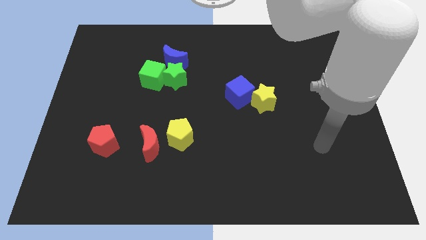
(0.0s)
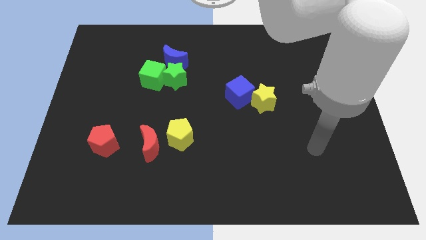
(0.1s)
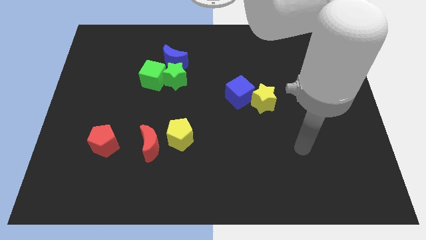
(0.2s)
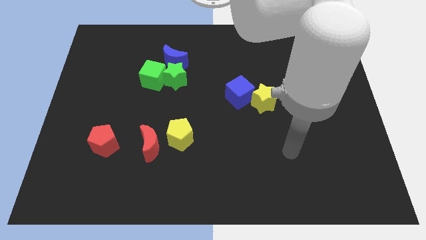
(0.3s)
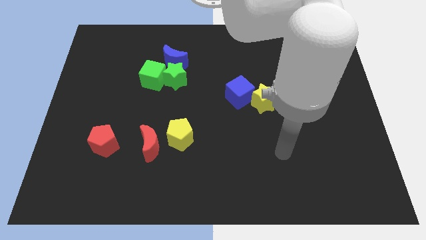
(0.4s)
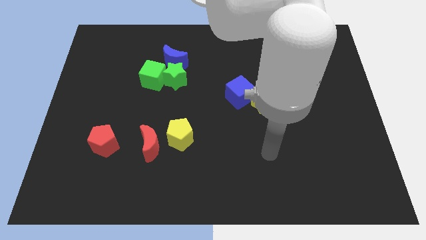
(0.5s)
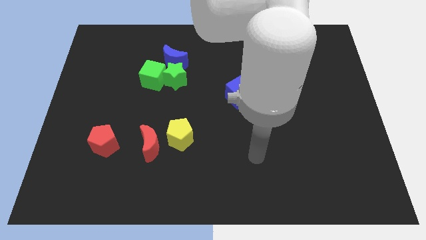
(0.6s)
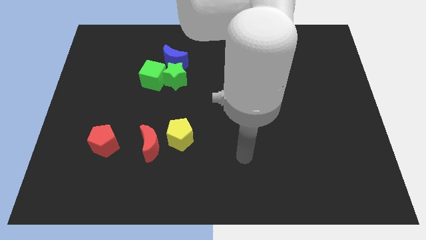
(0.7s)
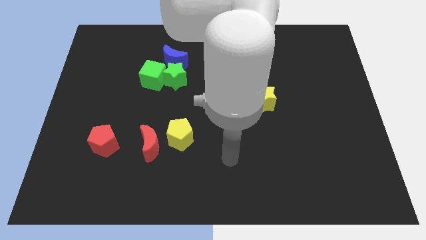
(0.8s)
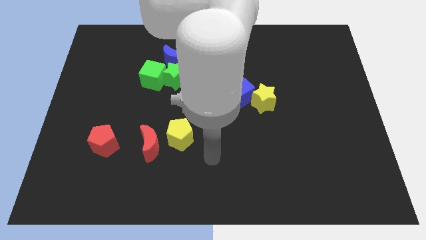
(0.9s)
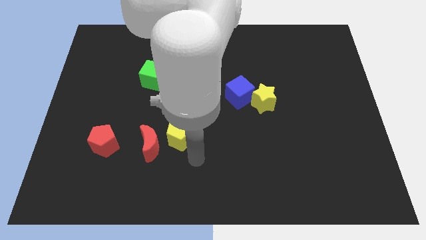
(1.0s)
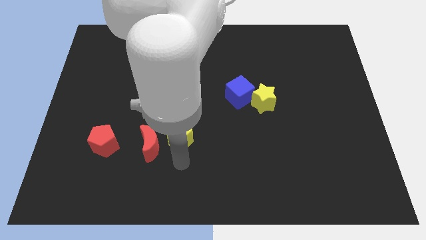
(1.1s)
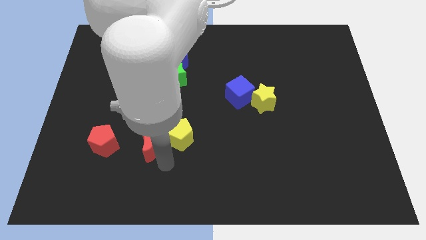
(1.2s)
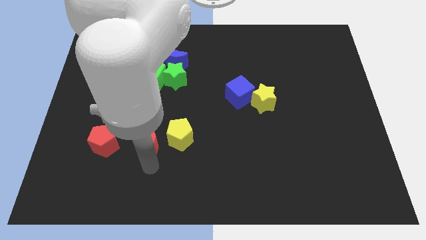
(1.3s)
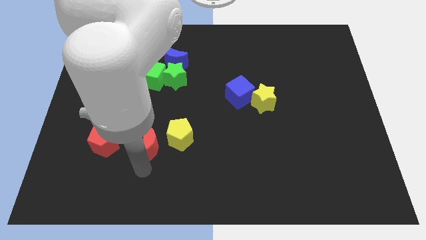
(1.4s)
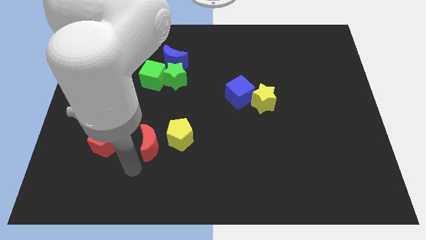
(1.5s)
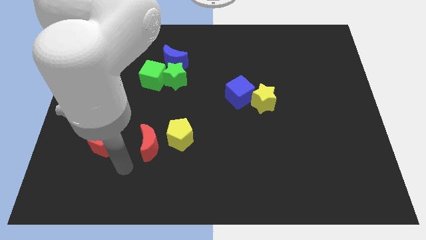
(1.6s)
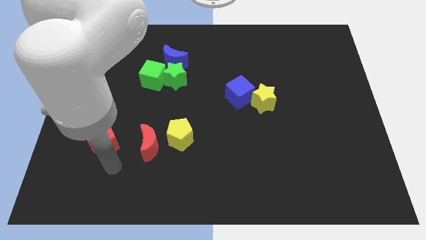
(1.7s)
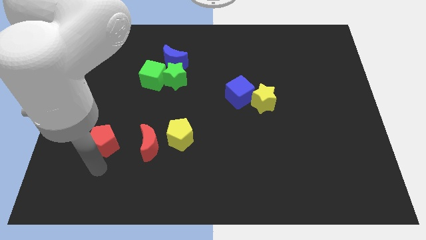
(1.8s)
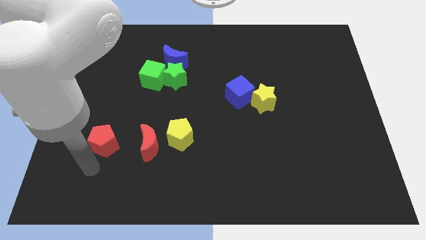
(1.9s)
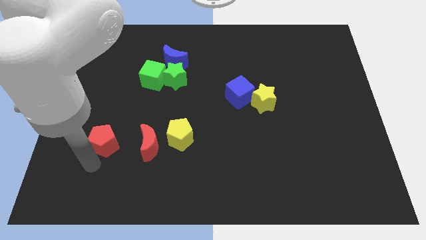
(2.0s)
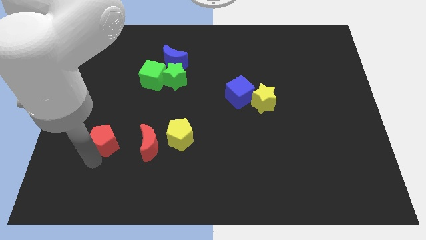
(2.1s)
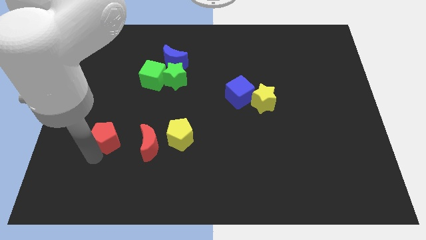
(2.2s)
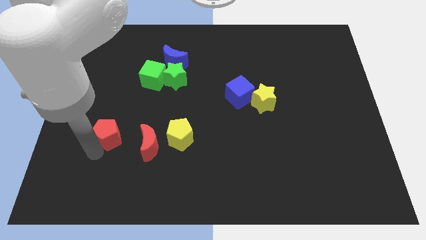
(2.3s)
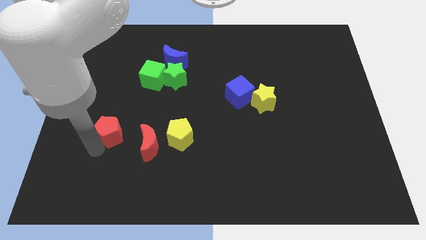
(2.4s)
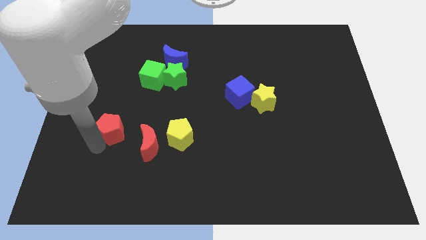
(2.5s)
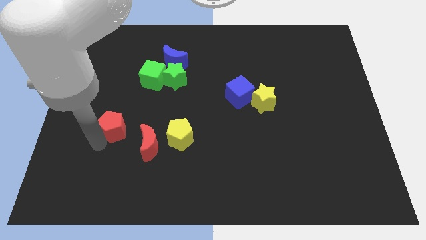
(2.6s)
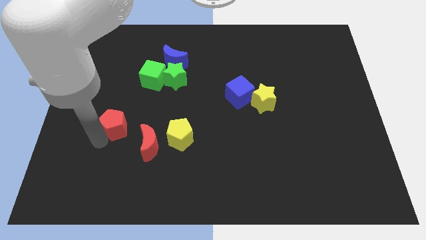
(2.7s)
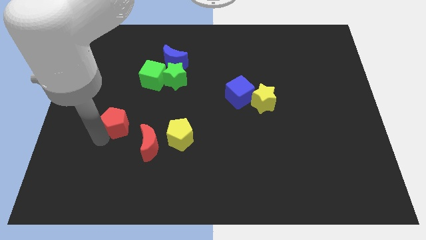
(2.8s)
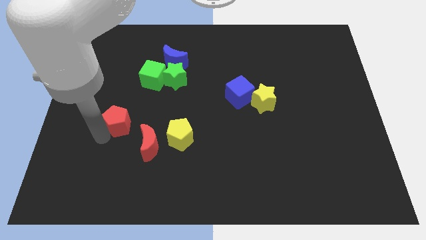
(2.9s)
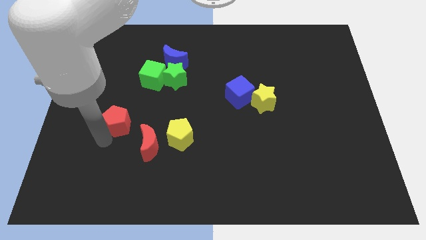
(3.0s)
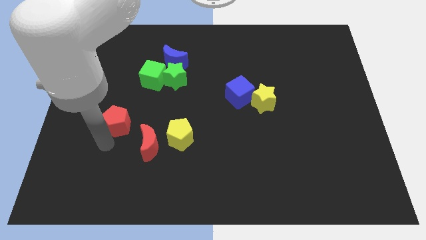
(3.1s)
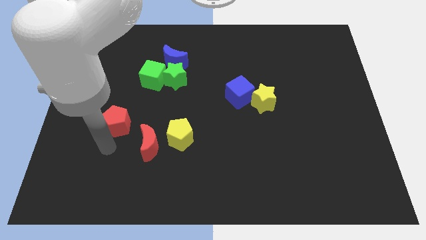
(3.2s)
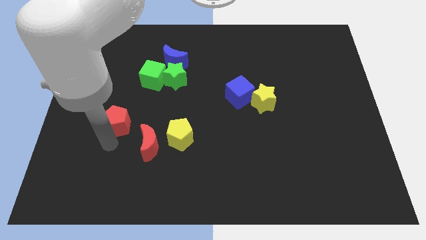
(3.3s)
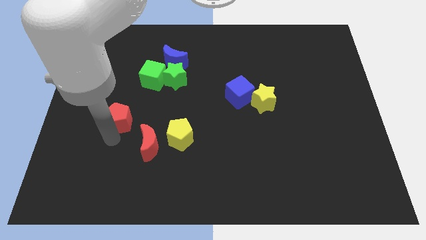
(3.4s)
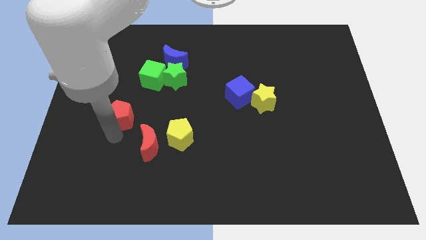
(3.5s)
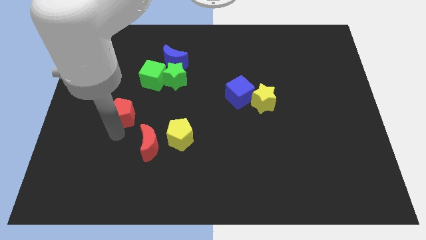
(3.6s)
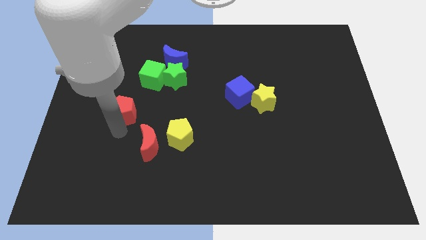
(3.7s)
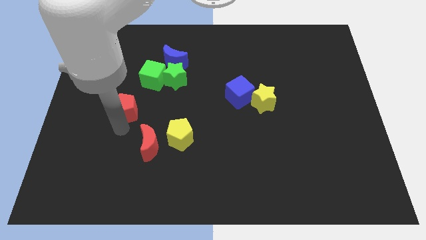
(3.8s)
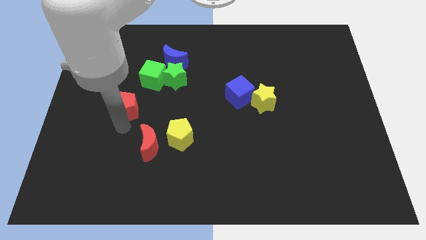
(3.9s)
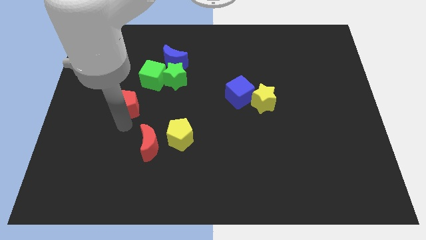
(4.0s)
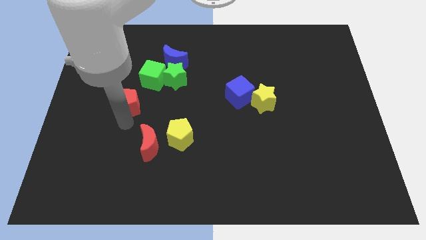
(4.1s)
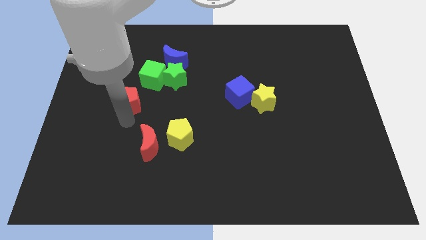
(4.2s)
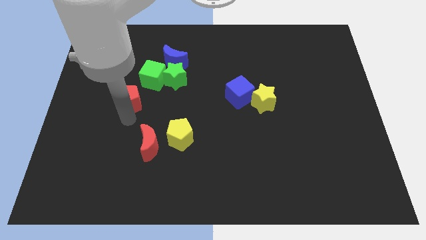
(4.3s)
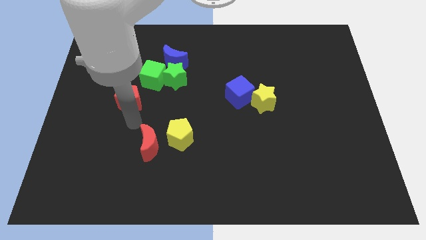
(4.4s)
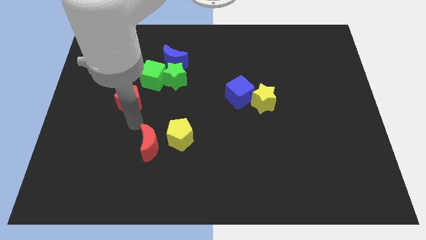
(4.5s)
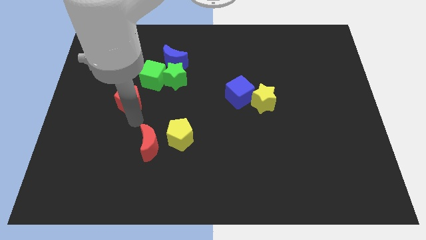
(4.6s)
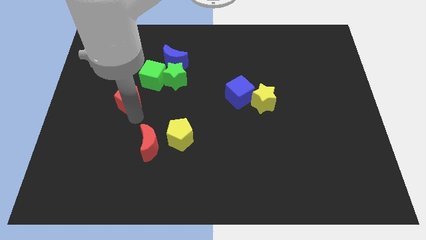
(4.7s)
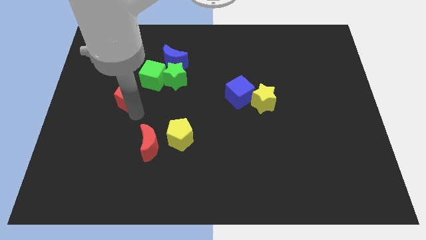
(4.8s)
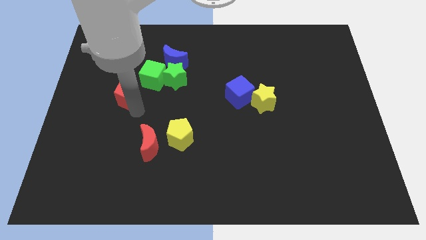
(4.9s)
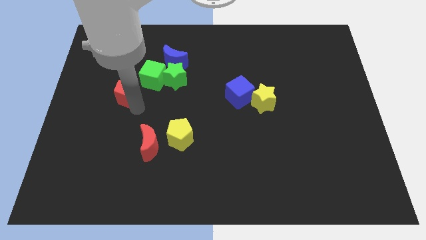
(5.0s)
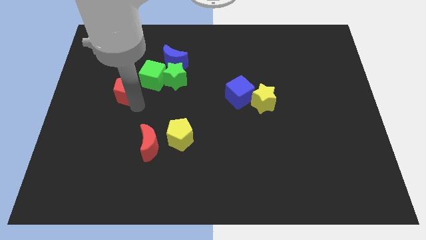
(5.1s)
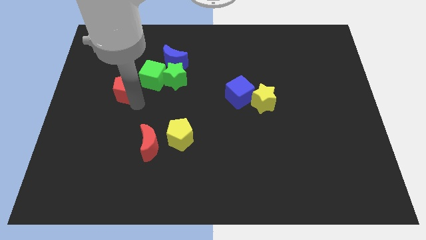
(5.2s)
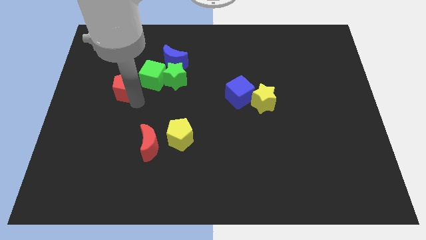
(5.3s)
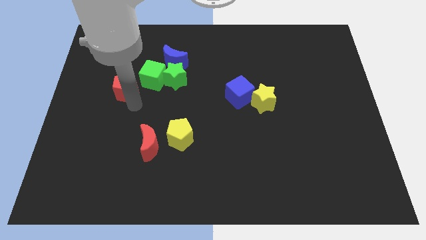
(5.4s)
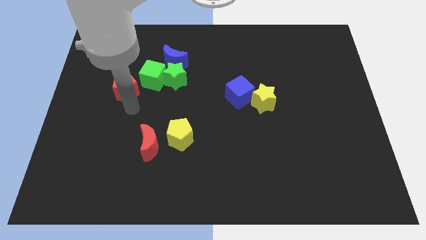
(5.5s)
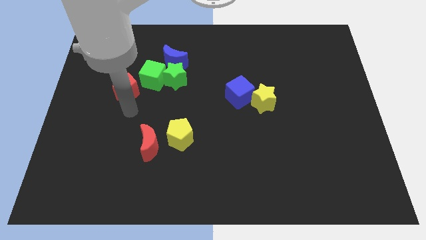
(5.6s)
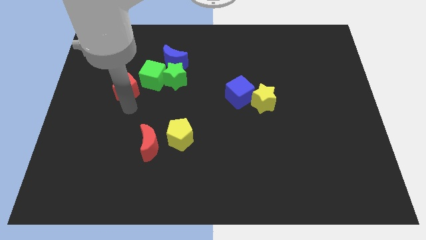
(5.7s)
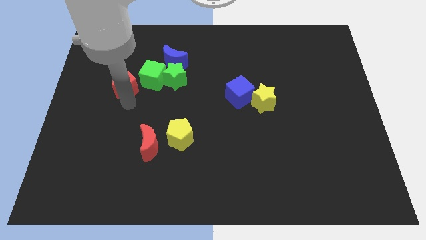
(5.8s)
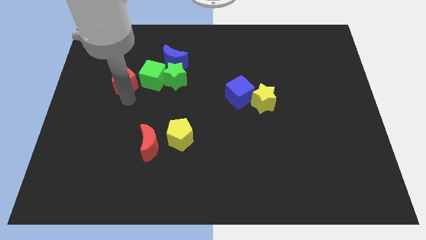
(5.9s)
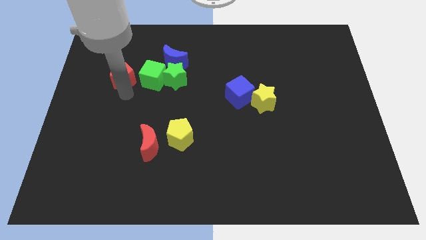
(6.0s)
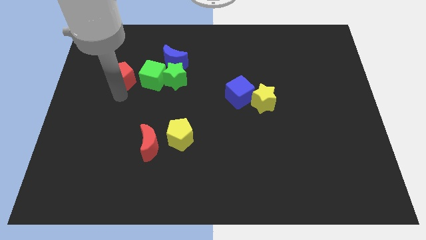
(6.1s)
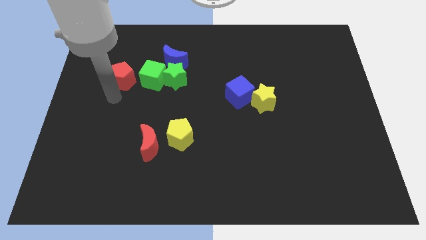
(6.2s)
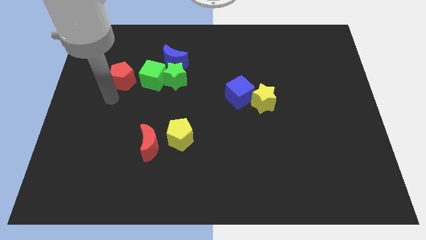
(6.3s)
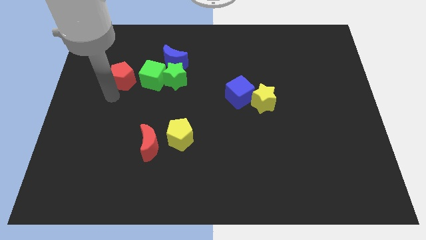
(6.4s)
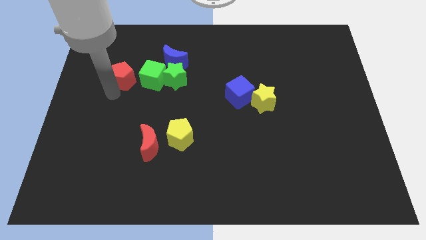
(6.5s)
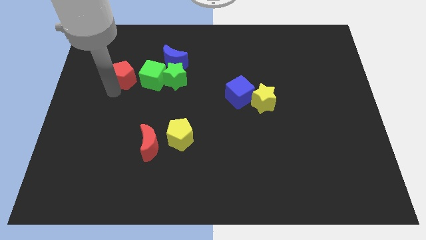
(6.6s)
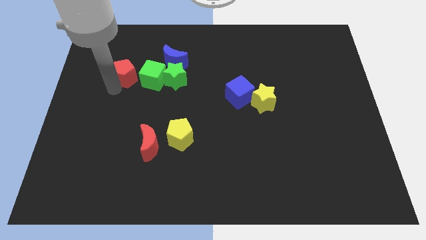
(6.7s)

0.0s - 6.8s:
move the red pentagon just left of the blue moon
